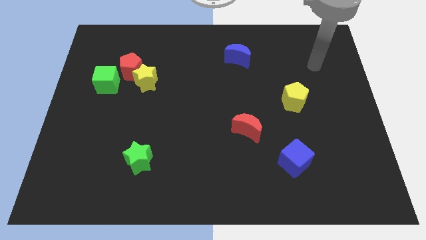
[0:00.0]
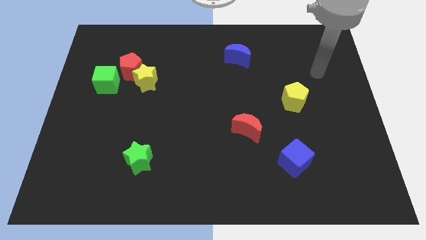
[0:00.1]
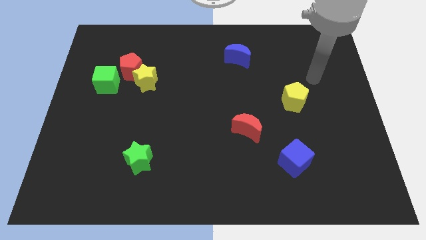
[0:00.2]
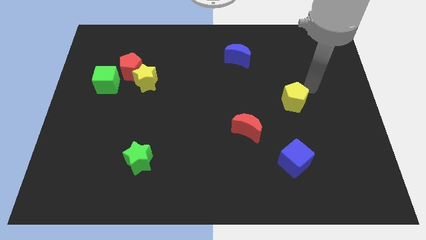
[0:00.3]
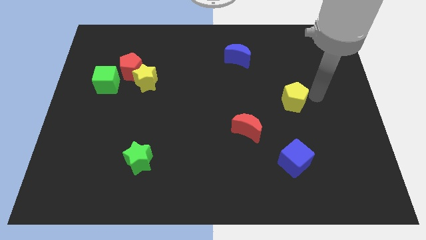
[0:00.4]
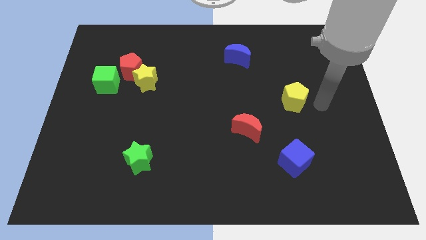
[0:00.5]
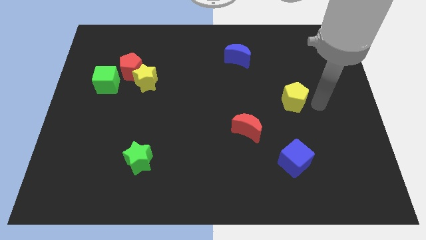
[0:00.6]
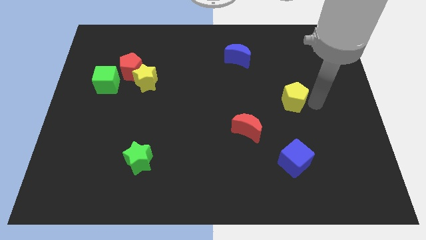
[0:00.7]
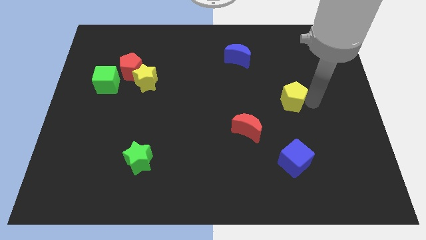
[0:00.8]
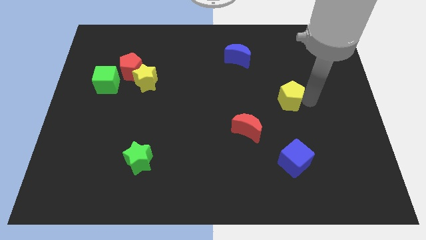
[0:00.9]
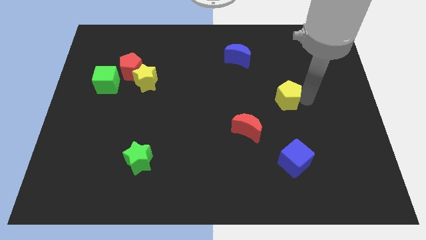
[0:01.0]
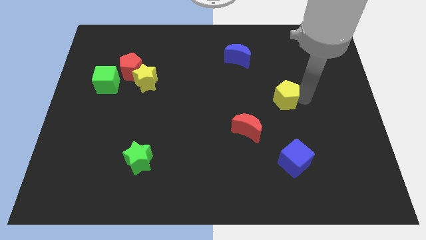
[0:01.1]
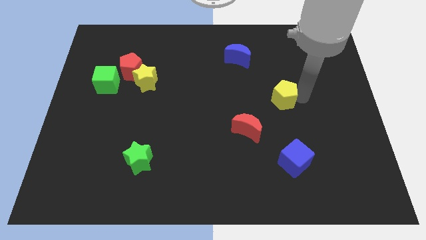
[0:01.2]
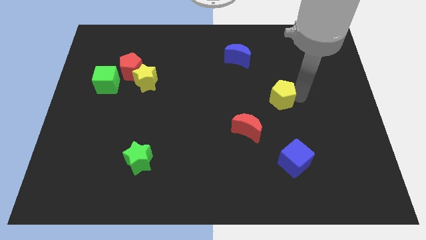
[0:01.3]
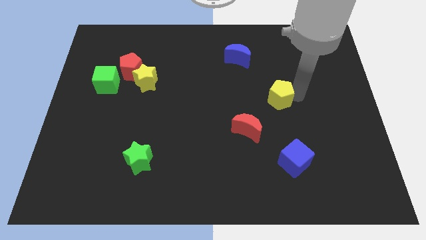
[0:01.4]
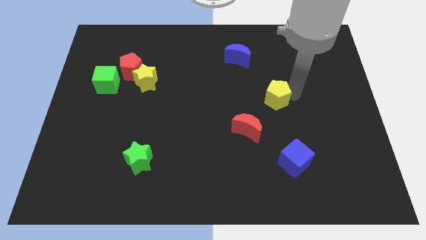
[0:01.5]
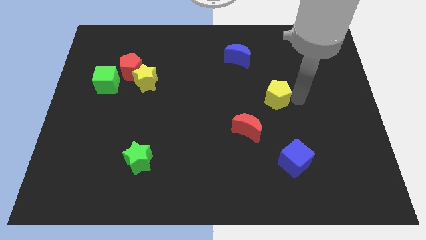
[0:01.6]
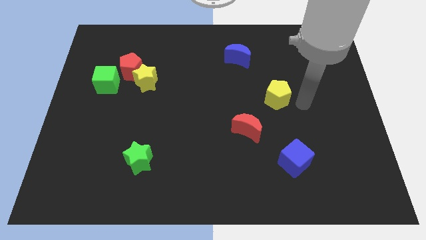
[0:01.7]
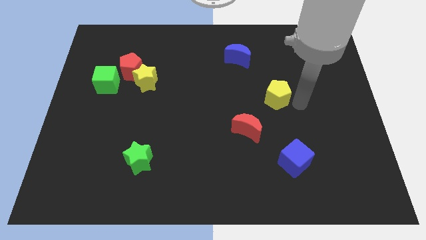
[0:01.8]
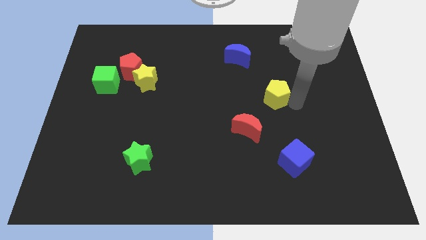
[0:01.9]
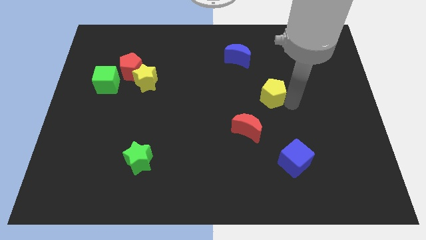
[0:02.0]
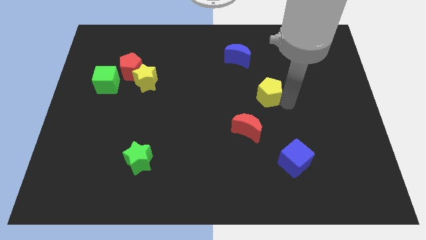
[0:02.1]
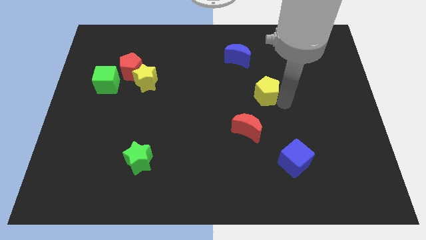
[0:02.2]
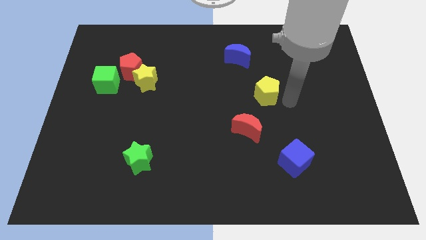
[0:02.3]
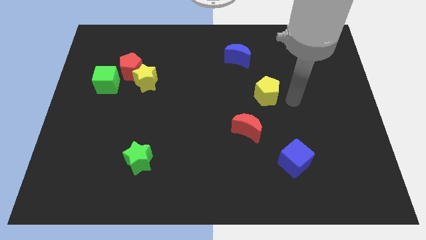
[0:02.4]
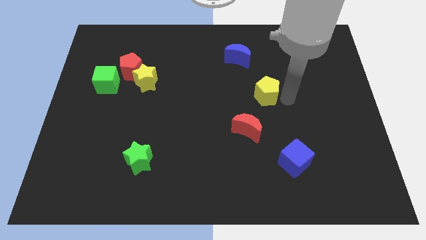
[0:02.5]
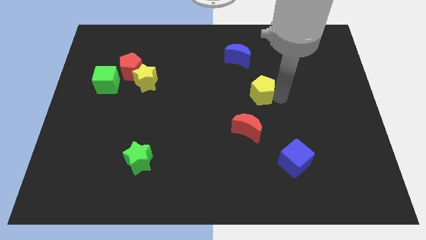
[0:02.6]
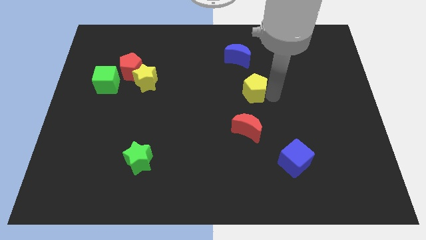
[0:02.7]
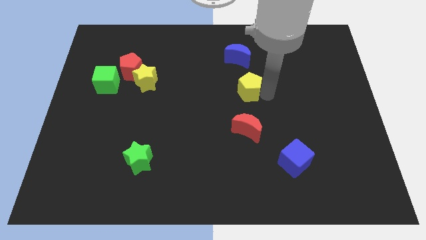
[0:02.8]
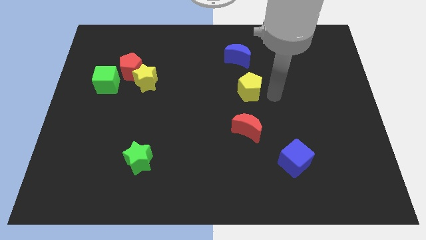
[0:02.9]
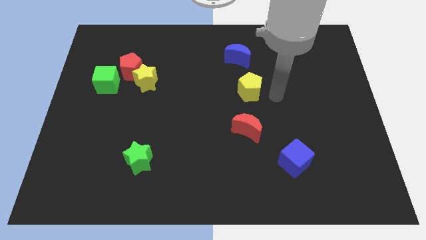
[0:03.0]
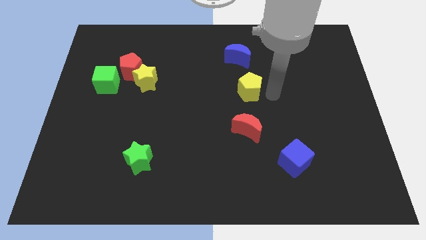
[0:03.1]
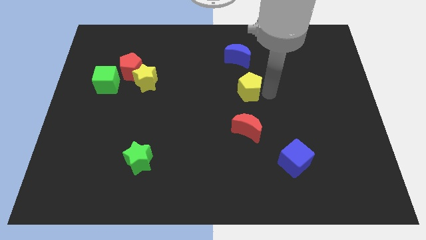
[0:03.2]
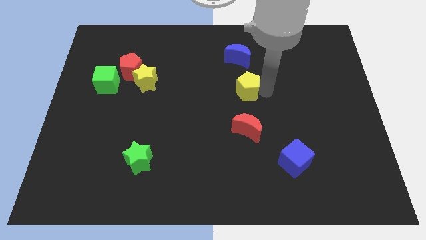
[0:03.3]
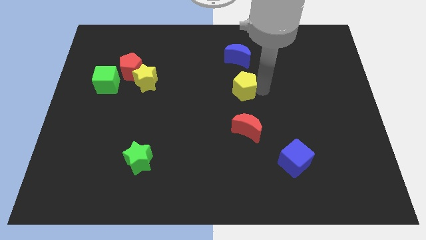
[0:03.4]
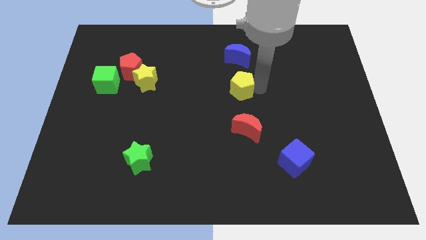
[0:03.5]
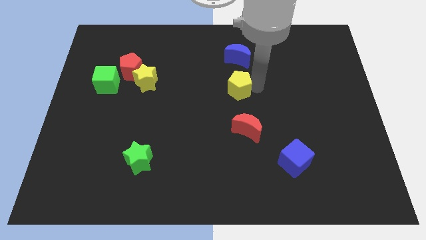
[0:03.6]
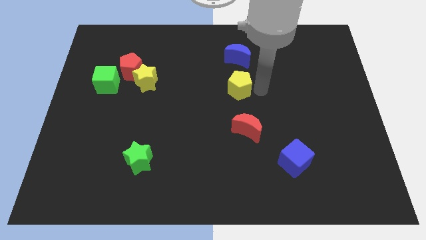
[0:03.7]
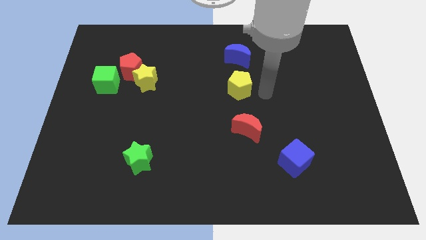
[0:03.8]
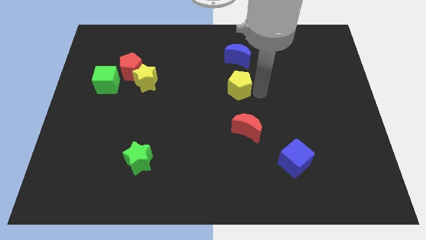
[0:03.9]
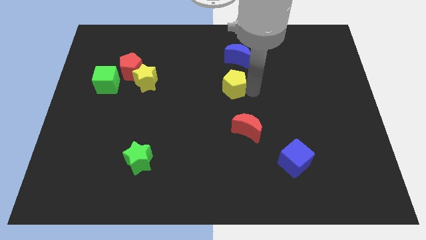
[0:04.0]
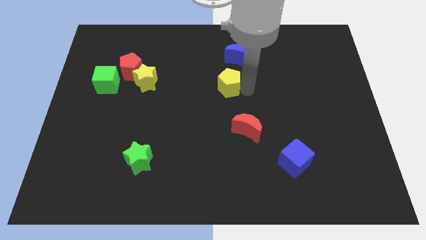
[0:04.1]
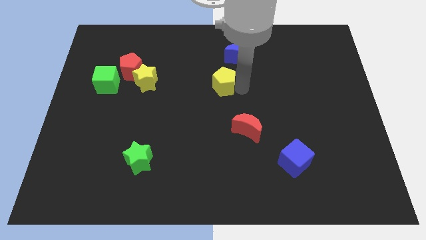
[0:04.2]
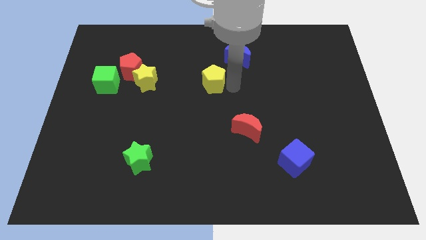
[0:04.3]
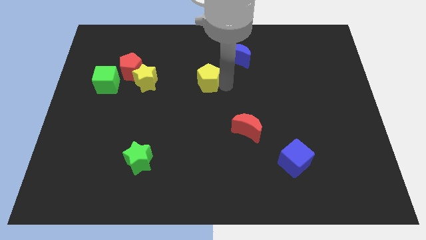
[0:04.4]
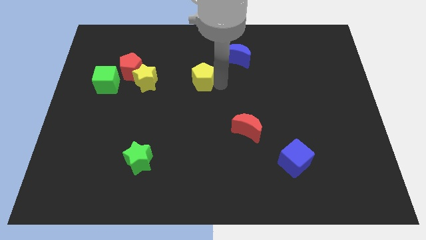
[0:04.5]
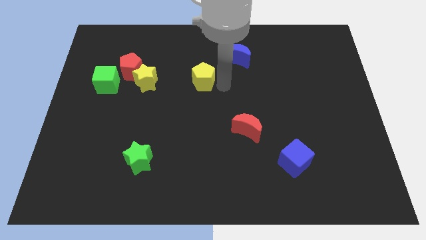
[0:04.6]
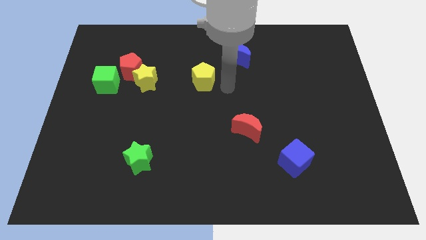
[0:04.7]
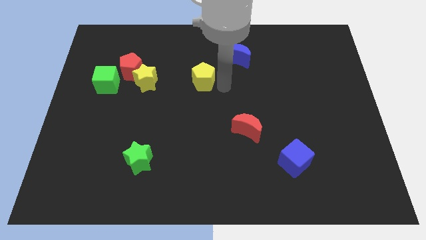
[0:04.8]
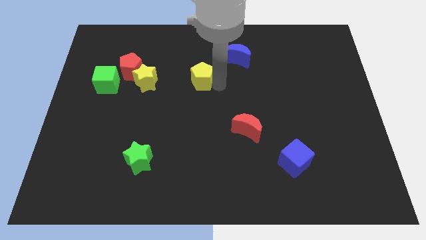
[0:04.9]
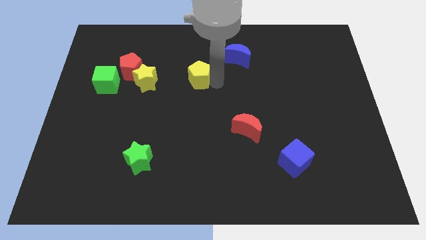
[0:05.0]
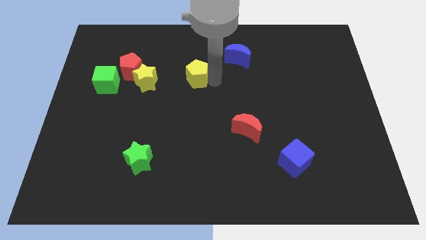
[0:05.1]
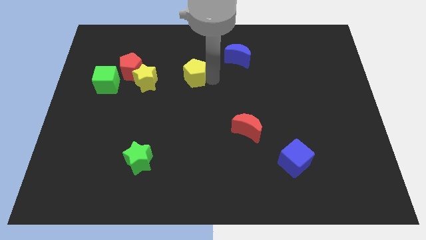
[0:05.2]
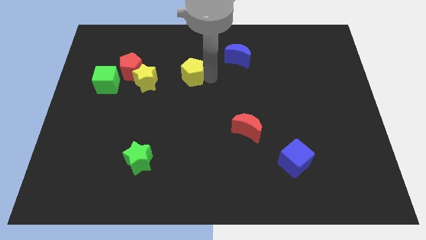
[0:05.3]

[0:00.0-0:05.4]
put the yellow pentagon to the right side of the red pentagon

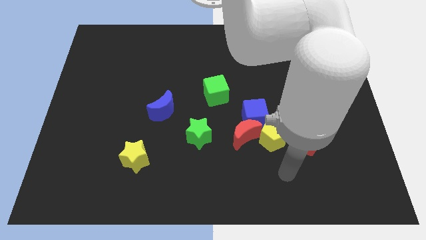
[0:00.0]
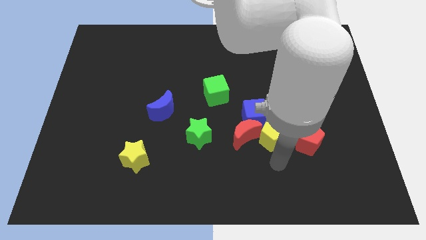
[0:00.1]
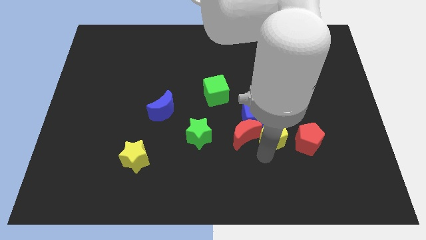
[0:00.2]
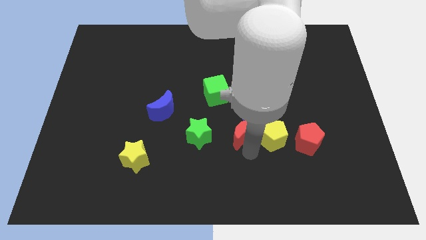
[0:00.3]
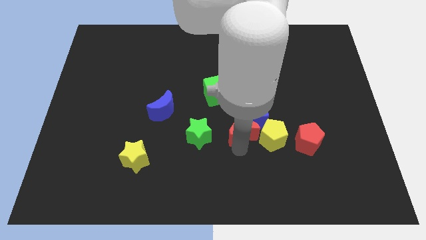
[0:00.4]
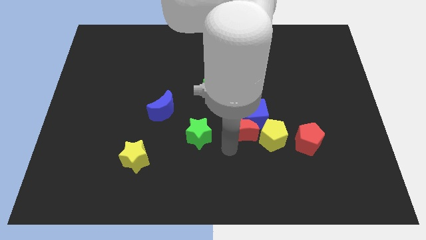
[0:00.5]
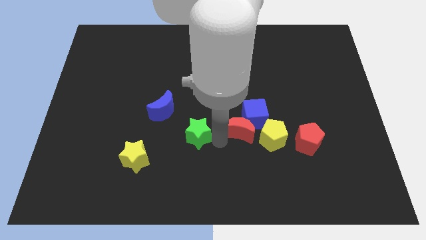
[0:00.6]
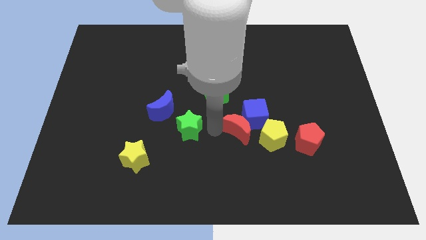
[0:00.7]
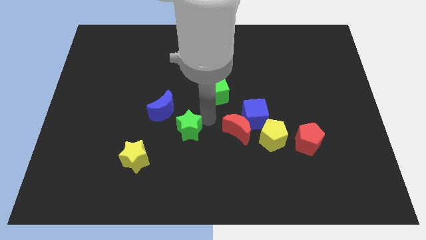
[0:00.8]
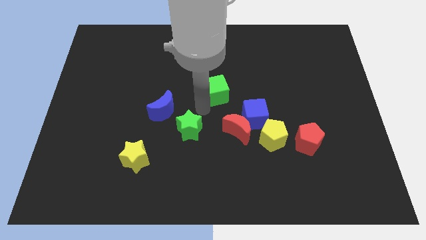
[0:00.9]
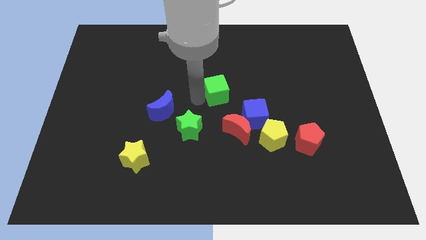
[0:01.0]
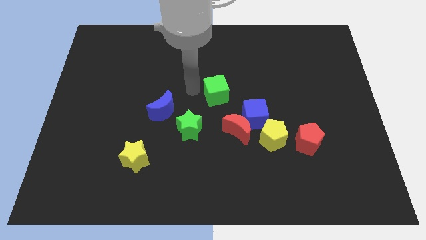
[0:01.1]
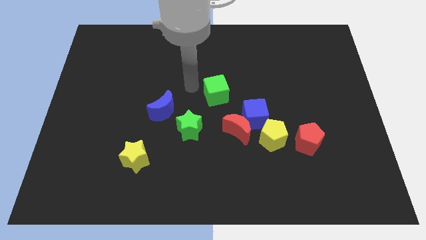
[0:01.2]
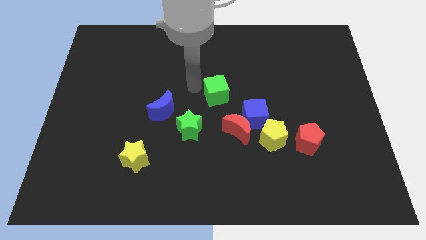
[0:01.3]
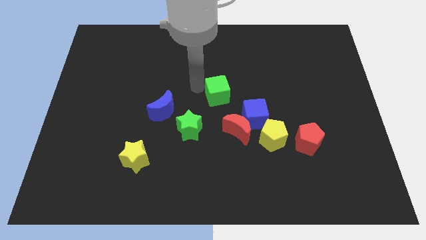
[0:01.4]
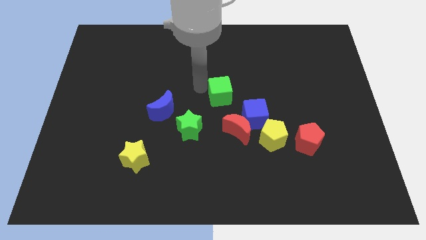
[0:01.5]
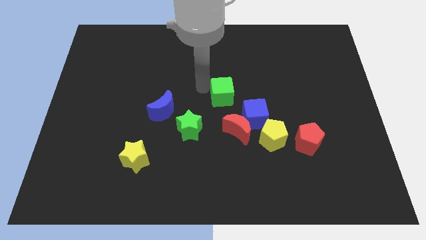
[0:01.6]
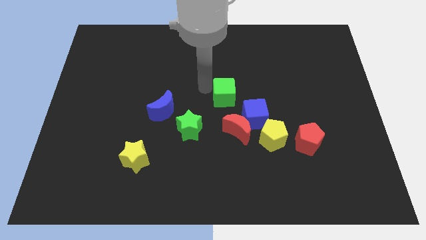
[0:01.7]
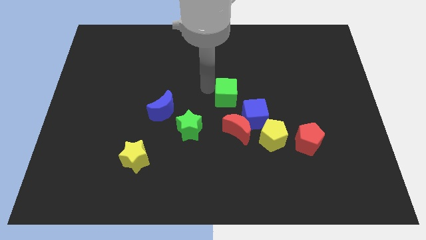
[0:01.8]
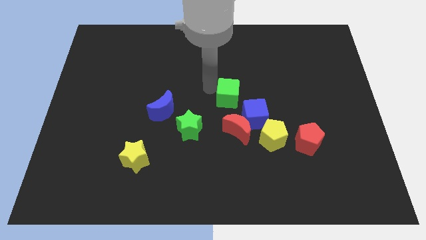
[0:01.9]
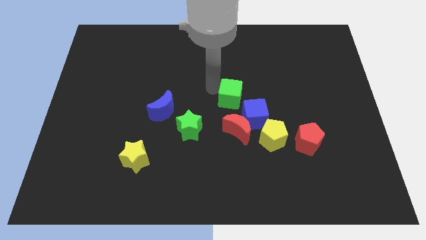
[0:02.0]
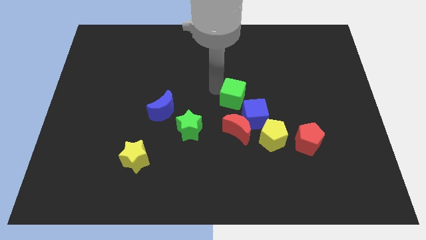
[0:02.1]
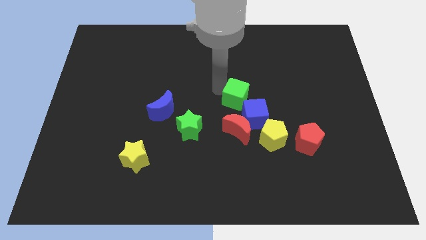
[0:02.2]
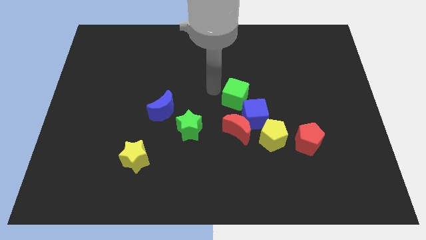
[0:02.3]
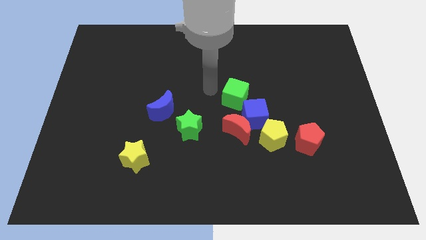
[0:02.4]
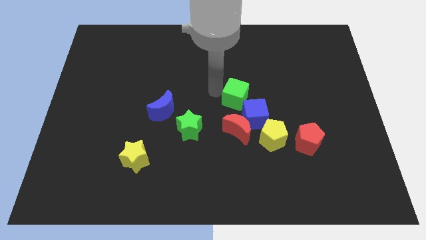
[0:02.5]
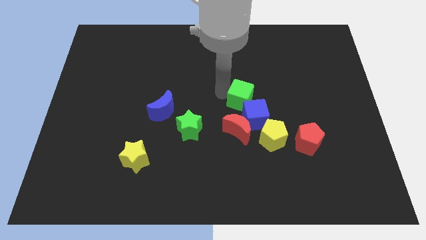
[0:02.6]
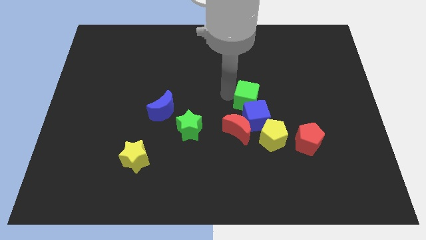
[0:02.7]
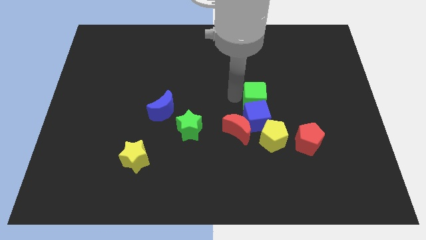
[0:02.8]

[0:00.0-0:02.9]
move the green cube diagonally up and to the right of the blue cube
